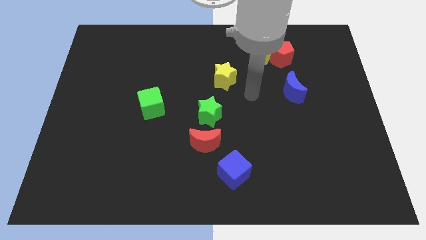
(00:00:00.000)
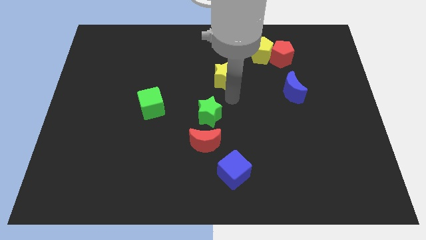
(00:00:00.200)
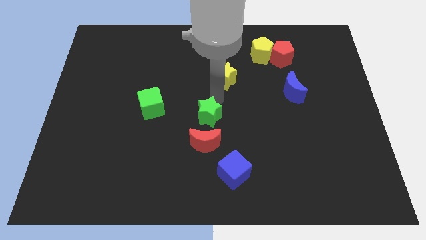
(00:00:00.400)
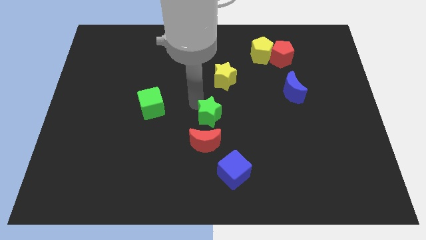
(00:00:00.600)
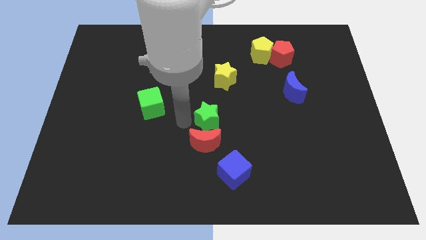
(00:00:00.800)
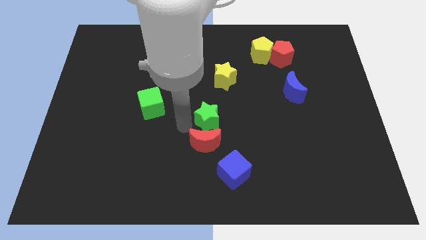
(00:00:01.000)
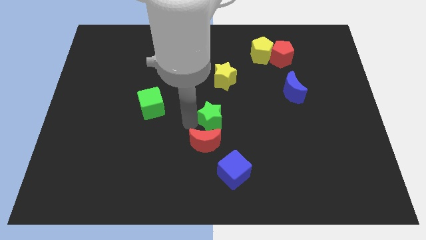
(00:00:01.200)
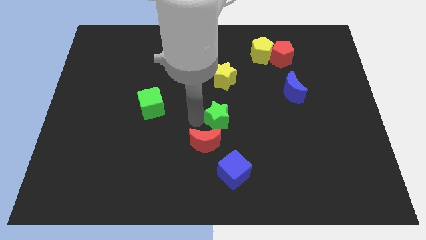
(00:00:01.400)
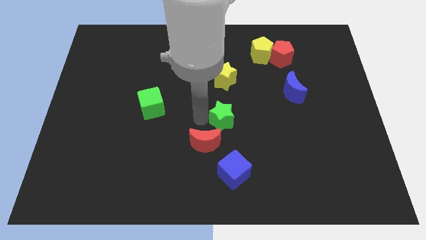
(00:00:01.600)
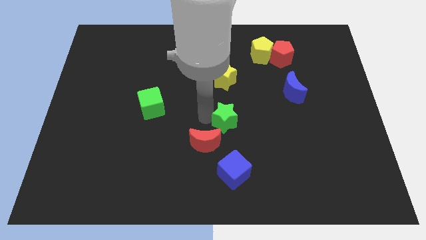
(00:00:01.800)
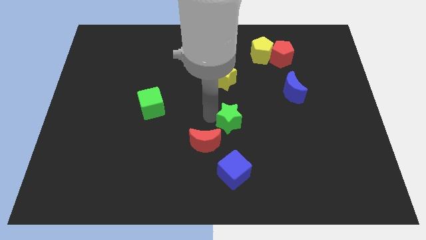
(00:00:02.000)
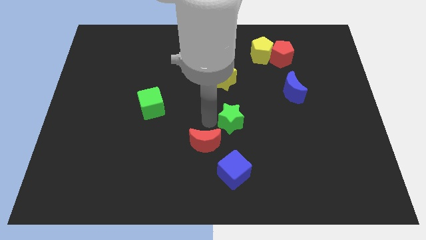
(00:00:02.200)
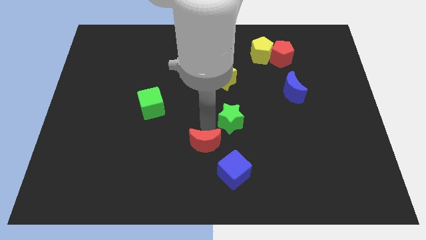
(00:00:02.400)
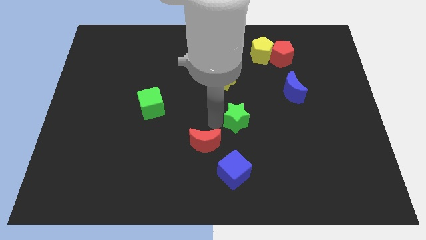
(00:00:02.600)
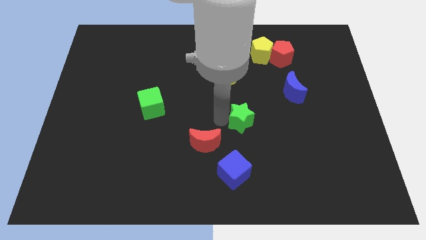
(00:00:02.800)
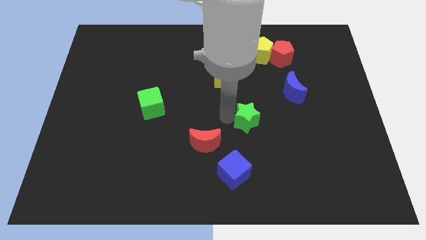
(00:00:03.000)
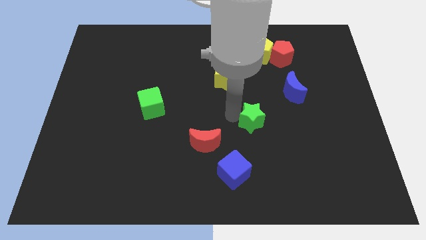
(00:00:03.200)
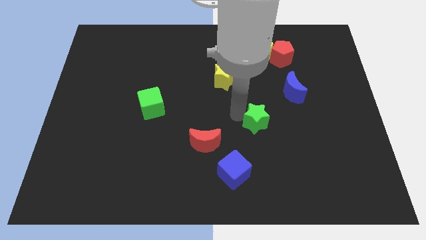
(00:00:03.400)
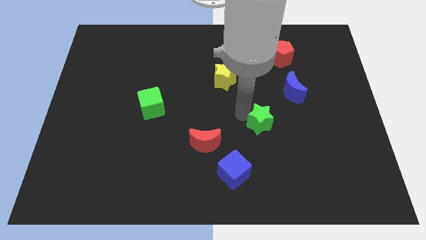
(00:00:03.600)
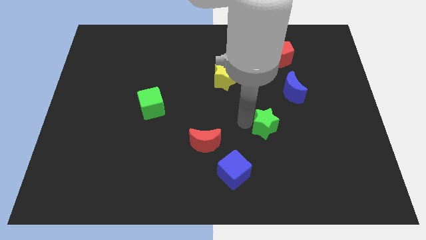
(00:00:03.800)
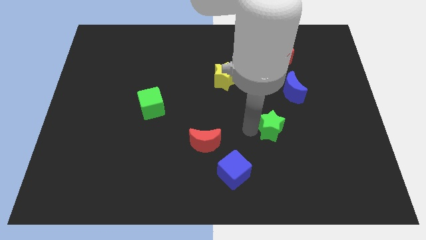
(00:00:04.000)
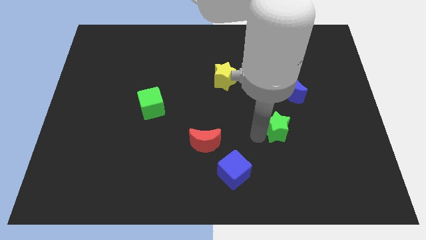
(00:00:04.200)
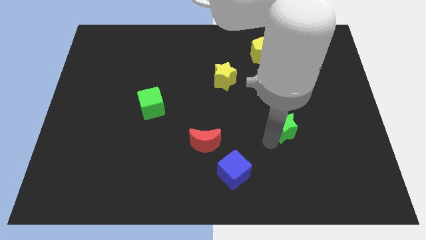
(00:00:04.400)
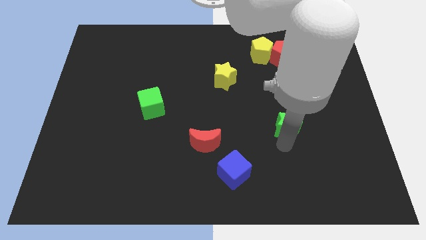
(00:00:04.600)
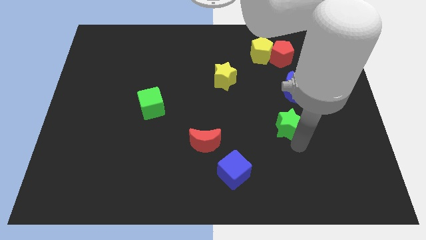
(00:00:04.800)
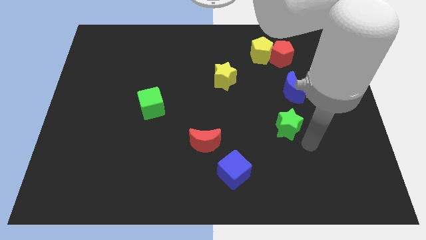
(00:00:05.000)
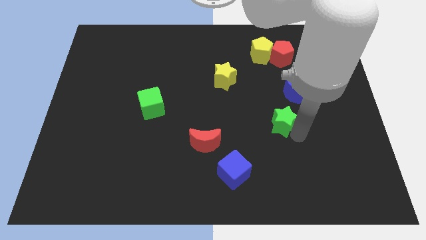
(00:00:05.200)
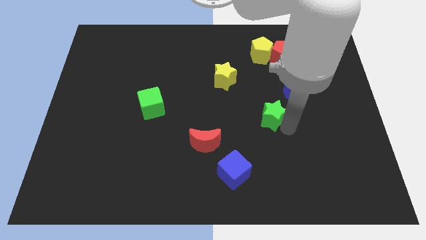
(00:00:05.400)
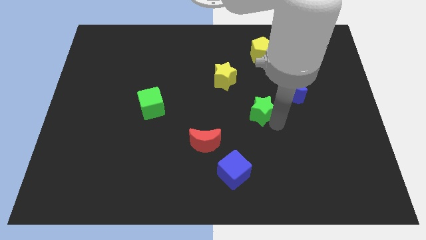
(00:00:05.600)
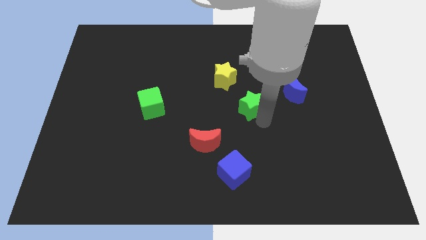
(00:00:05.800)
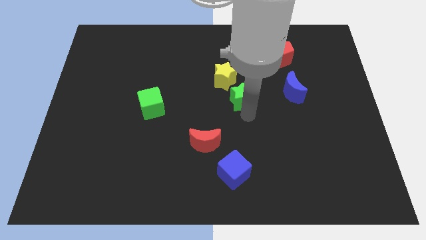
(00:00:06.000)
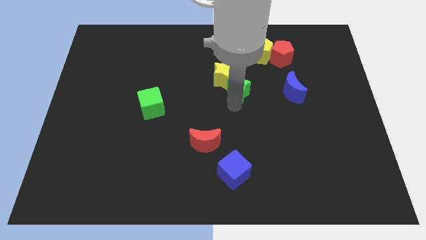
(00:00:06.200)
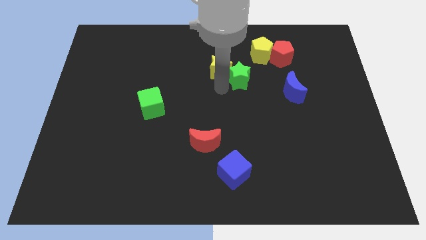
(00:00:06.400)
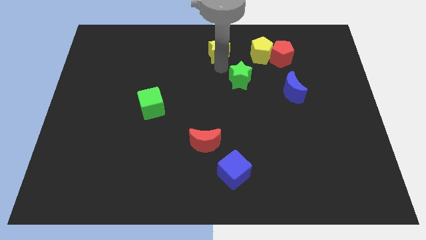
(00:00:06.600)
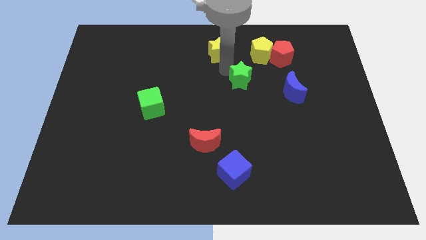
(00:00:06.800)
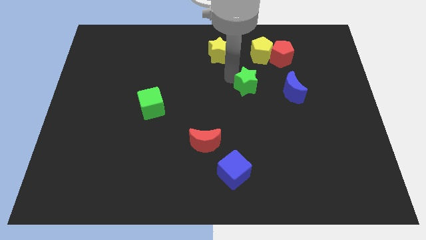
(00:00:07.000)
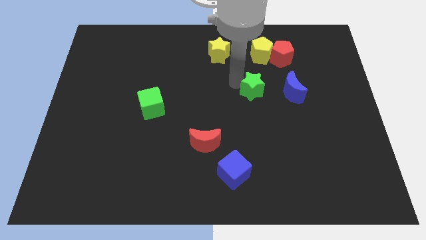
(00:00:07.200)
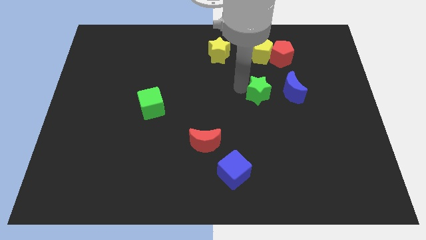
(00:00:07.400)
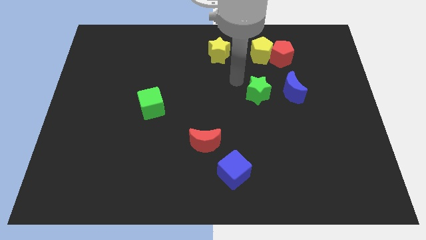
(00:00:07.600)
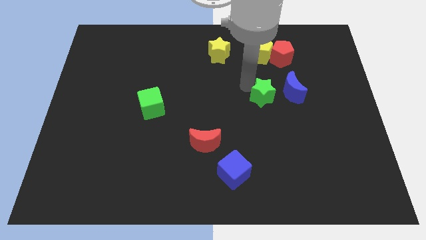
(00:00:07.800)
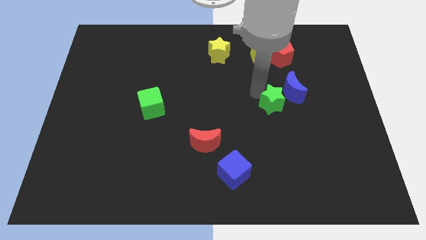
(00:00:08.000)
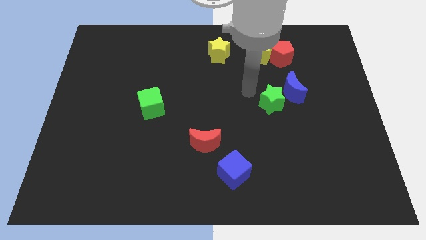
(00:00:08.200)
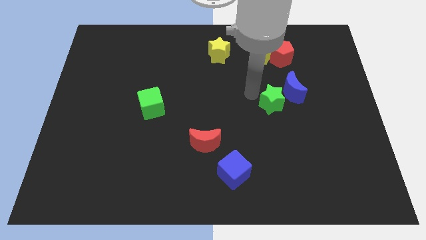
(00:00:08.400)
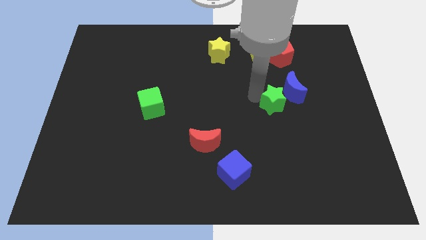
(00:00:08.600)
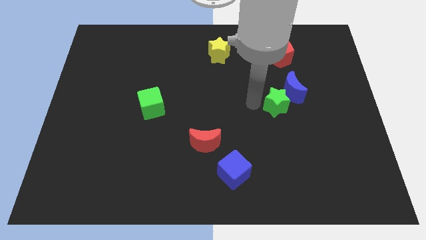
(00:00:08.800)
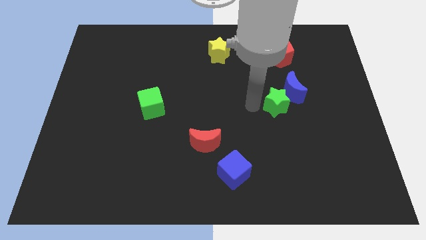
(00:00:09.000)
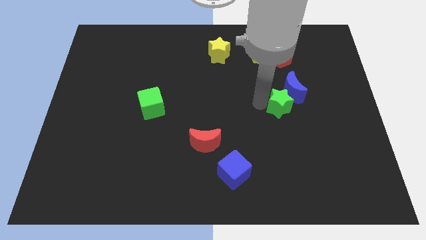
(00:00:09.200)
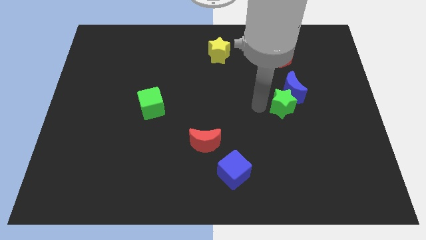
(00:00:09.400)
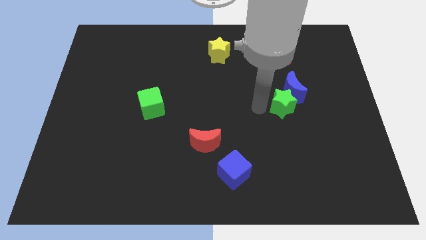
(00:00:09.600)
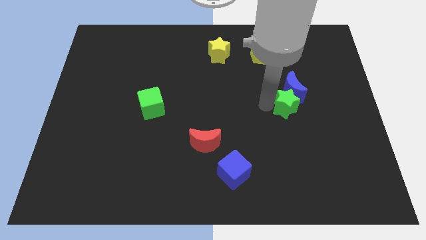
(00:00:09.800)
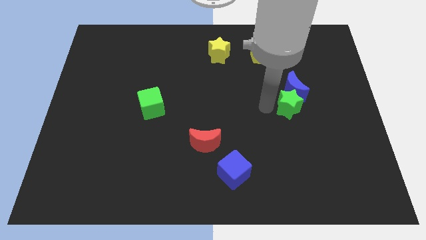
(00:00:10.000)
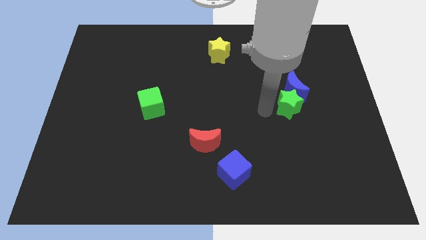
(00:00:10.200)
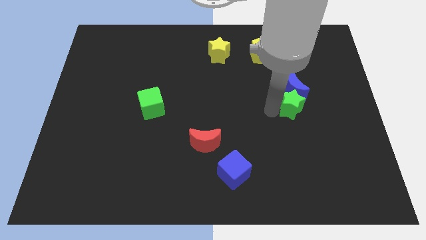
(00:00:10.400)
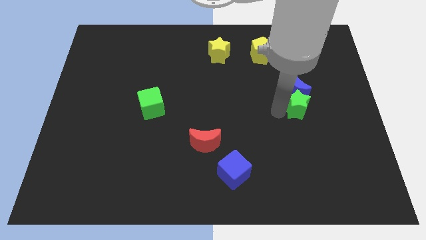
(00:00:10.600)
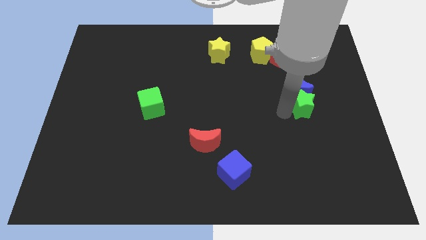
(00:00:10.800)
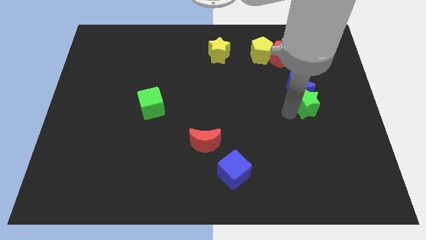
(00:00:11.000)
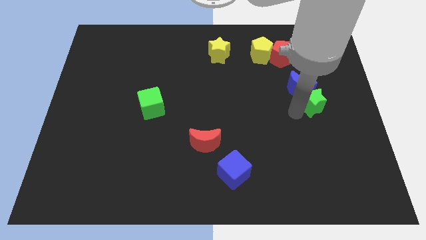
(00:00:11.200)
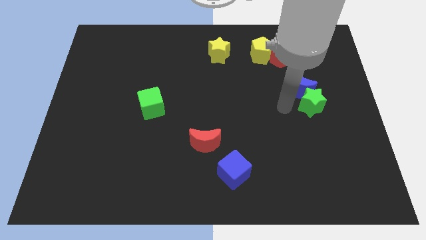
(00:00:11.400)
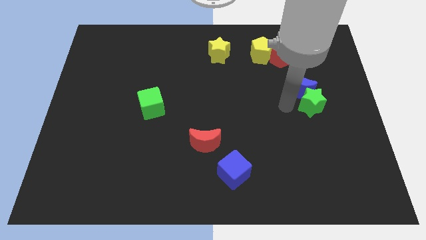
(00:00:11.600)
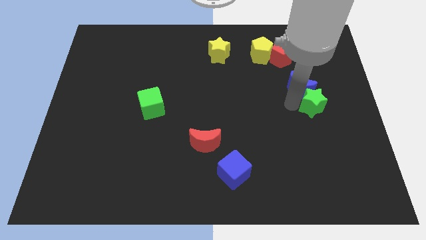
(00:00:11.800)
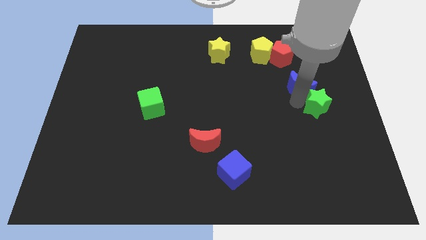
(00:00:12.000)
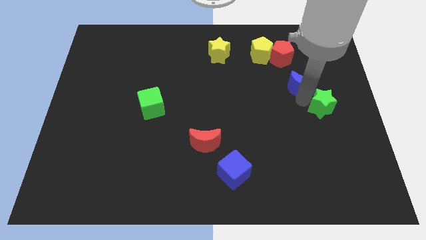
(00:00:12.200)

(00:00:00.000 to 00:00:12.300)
slide the green star to the right side of the board

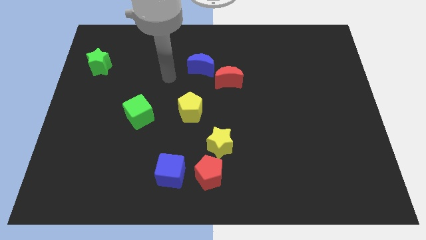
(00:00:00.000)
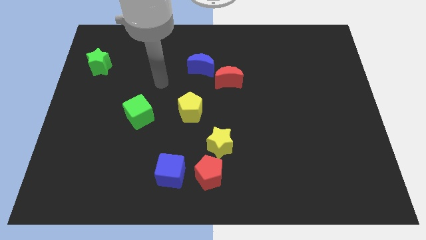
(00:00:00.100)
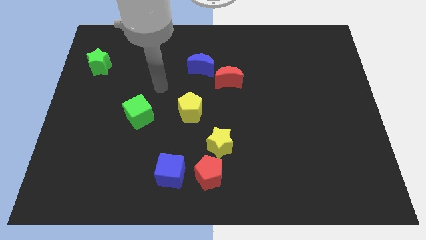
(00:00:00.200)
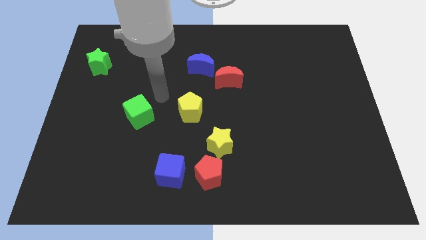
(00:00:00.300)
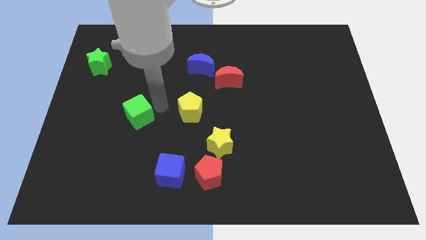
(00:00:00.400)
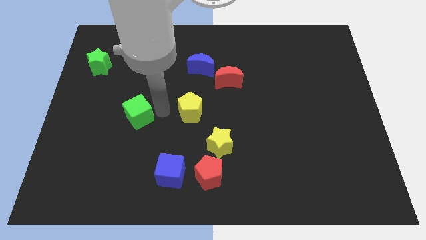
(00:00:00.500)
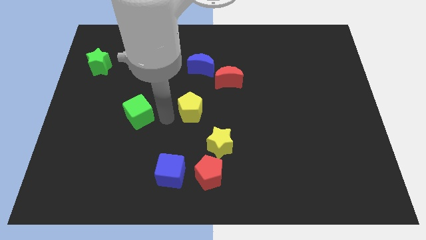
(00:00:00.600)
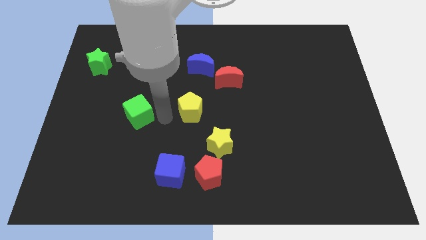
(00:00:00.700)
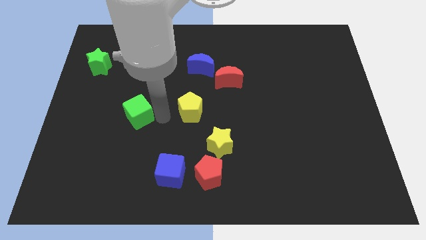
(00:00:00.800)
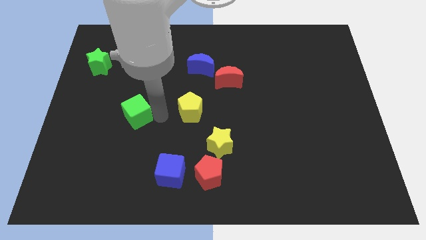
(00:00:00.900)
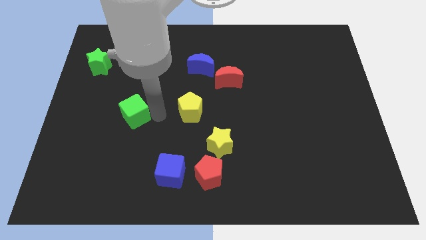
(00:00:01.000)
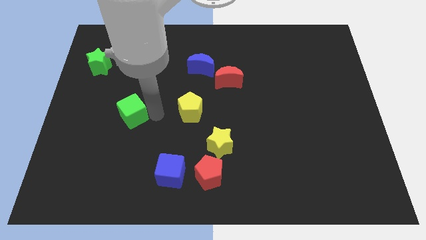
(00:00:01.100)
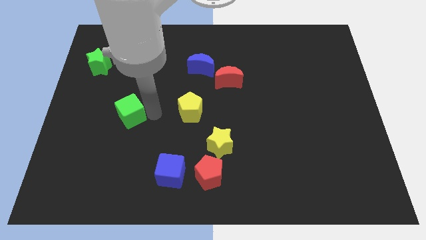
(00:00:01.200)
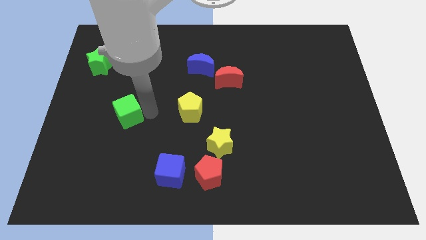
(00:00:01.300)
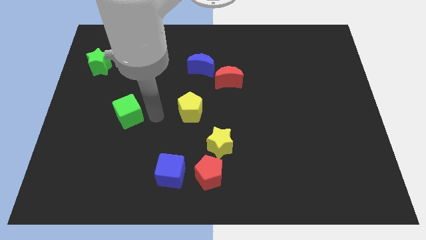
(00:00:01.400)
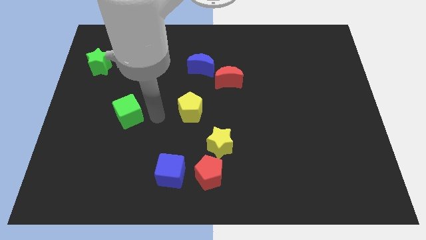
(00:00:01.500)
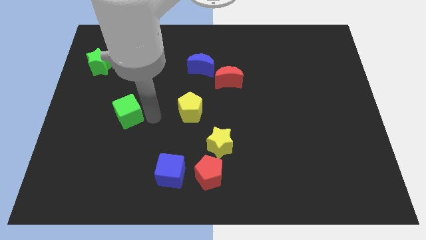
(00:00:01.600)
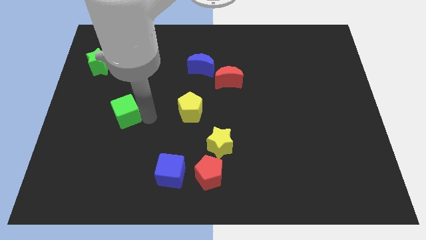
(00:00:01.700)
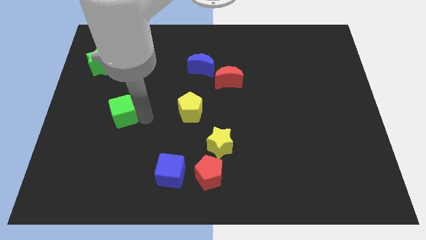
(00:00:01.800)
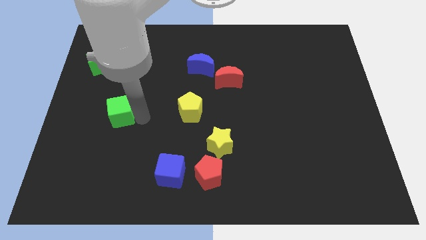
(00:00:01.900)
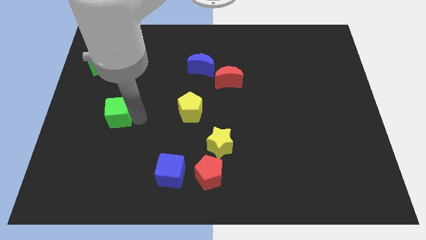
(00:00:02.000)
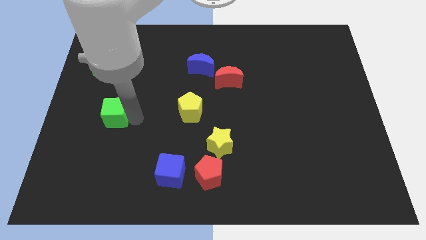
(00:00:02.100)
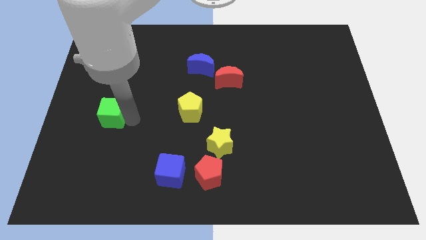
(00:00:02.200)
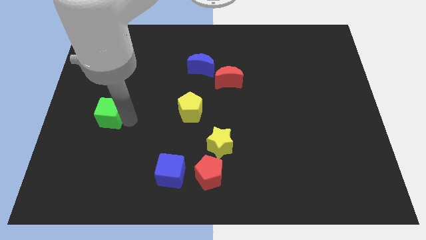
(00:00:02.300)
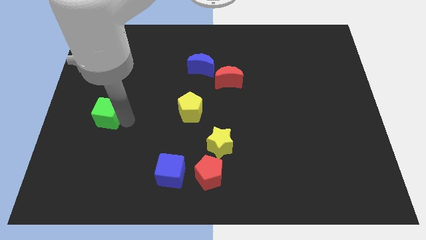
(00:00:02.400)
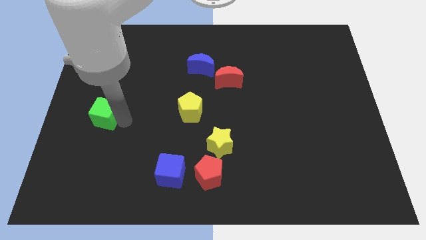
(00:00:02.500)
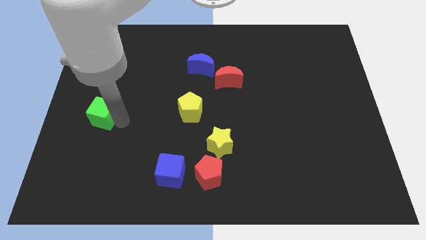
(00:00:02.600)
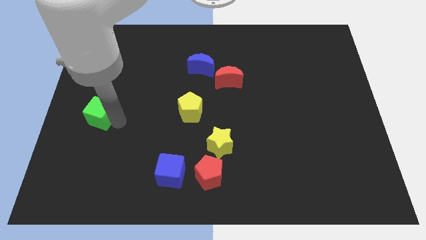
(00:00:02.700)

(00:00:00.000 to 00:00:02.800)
slide the green cube to the left side
